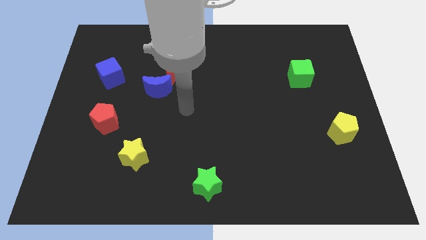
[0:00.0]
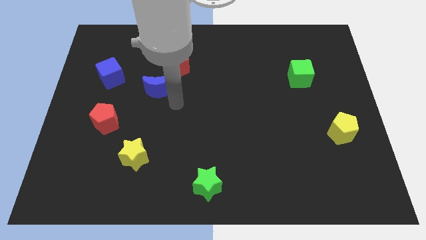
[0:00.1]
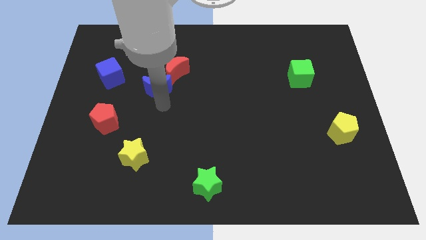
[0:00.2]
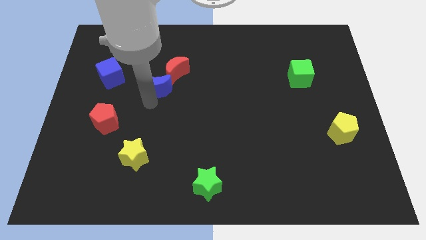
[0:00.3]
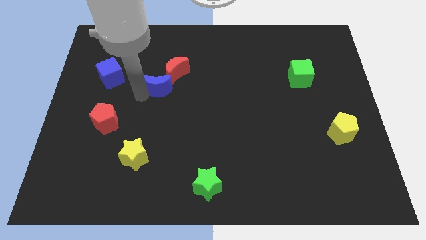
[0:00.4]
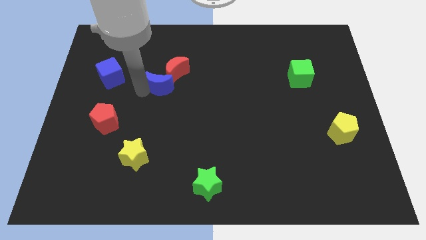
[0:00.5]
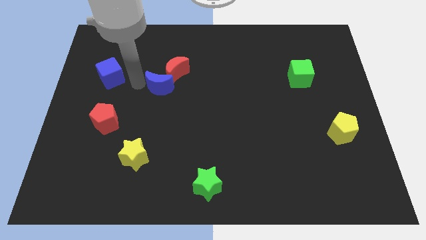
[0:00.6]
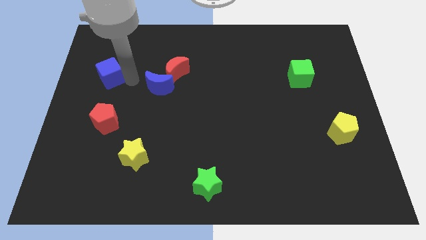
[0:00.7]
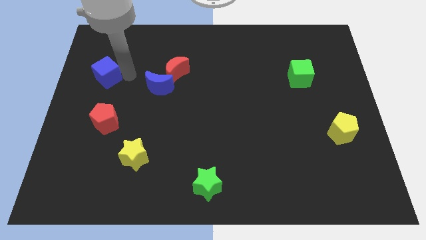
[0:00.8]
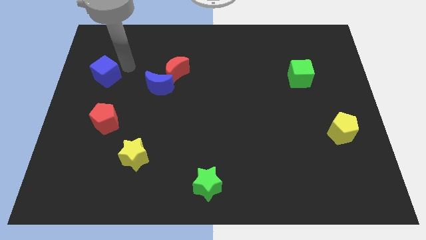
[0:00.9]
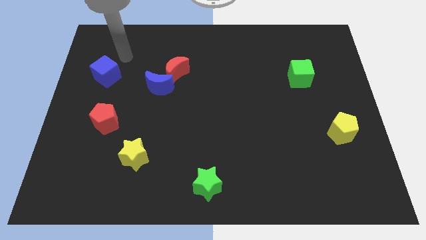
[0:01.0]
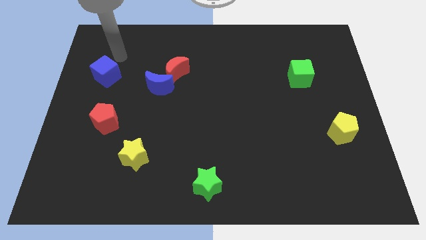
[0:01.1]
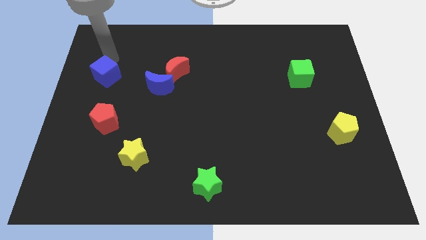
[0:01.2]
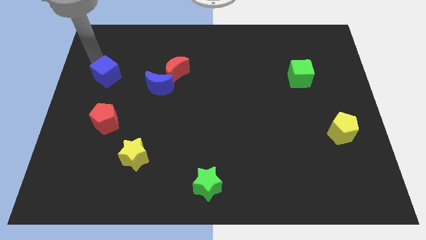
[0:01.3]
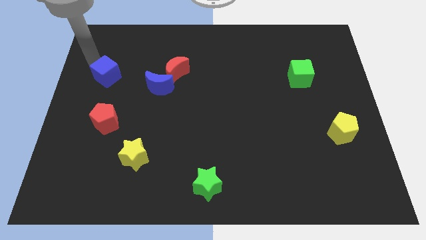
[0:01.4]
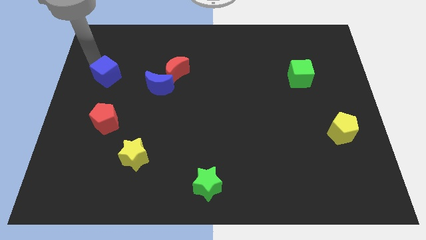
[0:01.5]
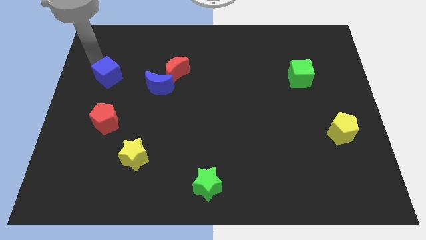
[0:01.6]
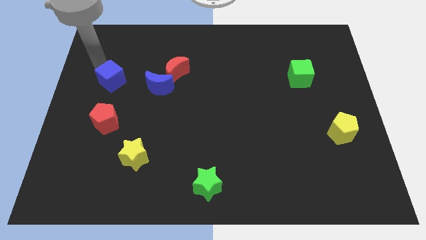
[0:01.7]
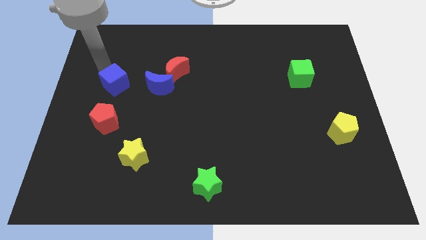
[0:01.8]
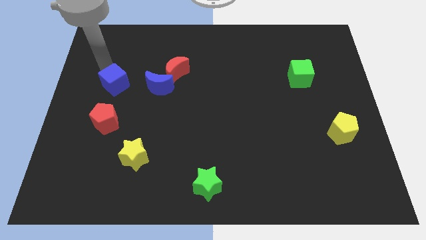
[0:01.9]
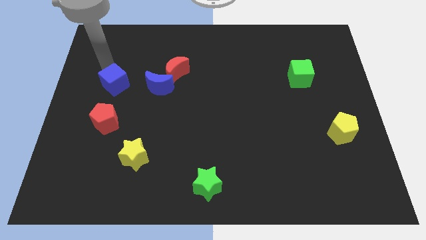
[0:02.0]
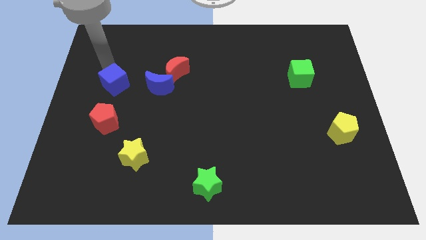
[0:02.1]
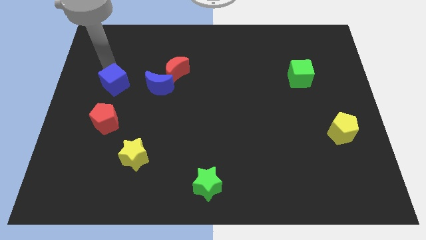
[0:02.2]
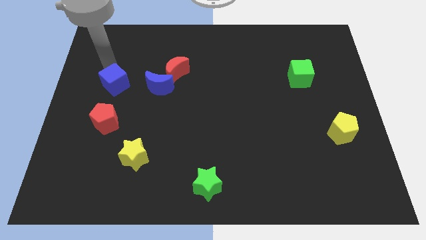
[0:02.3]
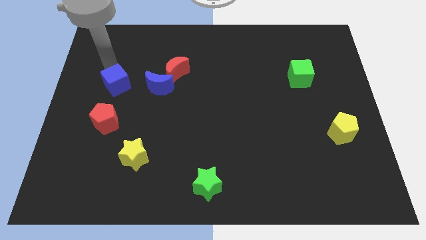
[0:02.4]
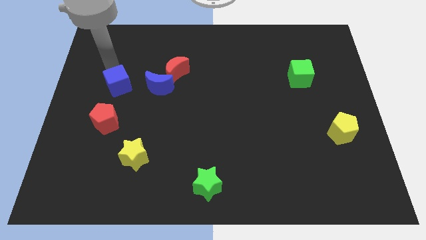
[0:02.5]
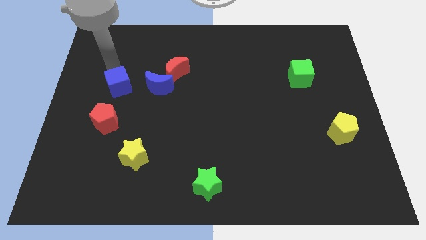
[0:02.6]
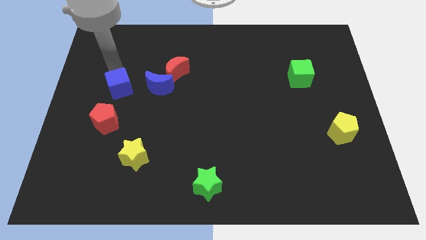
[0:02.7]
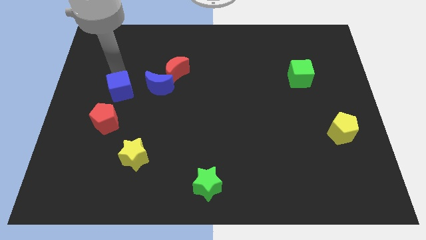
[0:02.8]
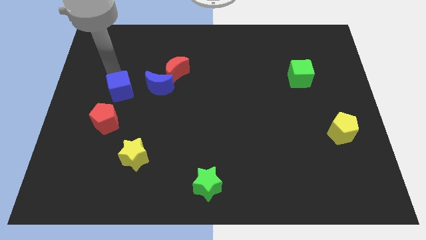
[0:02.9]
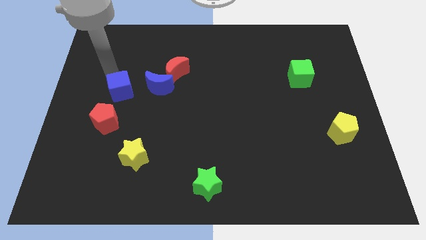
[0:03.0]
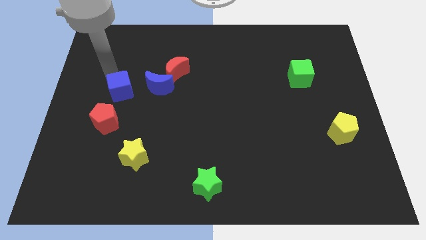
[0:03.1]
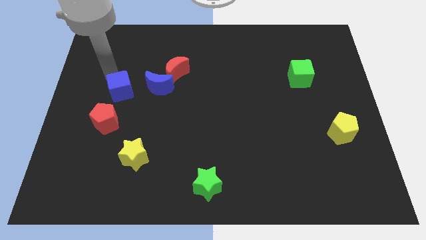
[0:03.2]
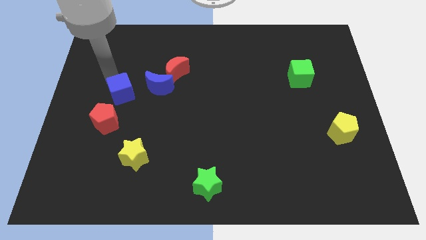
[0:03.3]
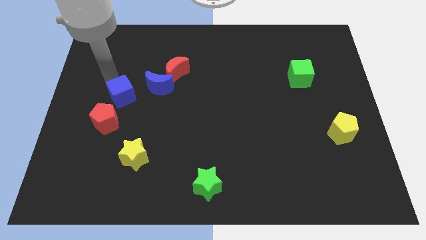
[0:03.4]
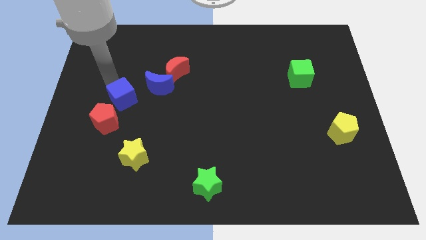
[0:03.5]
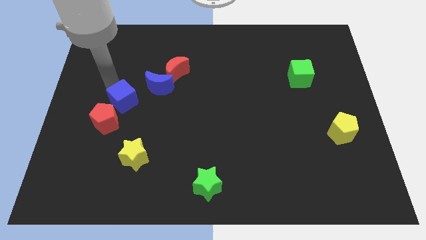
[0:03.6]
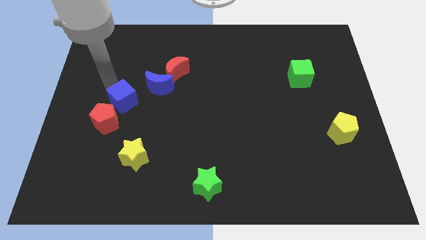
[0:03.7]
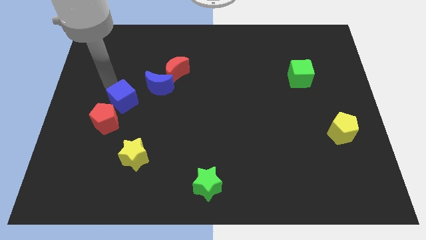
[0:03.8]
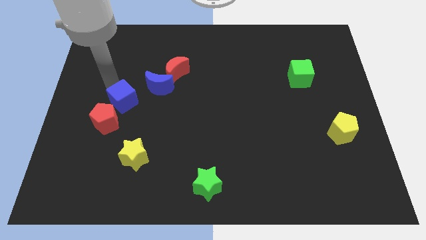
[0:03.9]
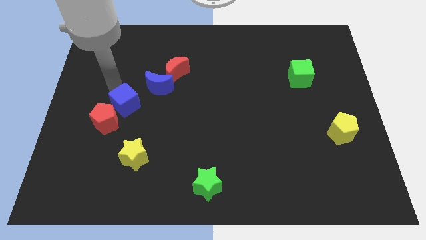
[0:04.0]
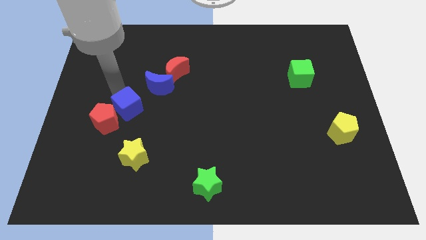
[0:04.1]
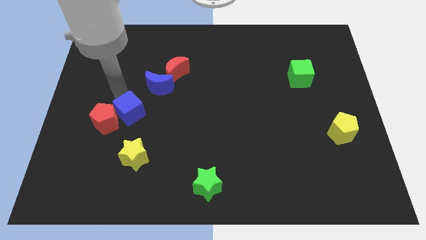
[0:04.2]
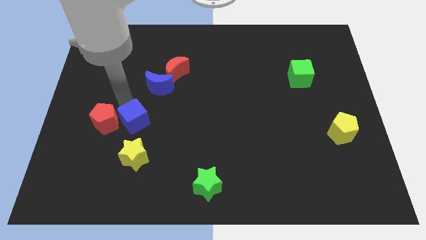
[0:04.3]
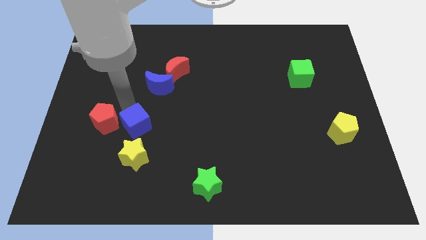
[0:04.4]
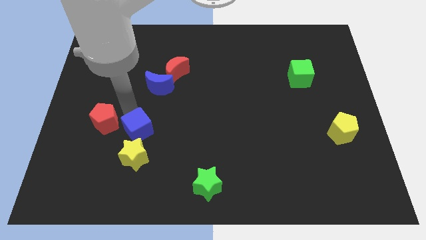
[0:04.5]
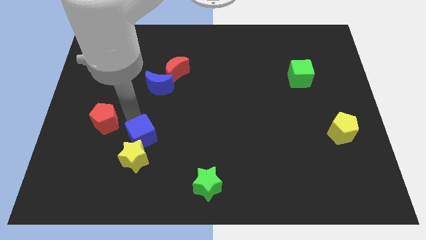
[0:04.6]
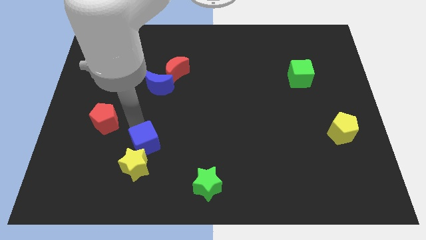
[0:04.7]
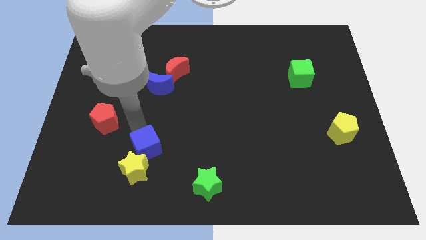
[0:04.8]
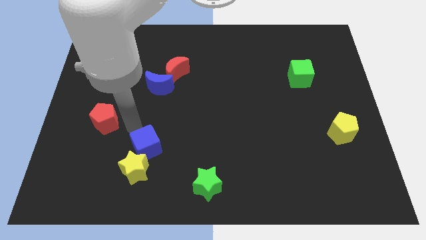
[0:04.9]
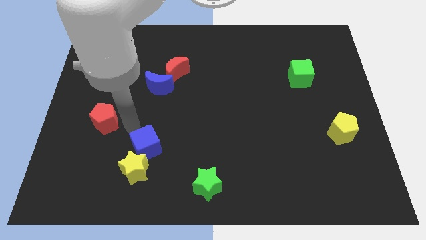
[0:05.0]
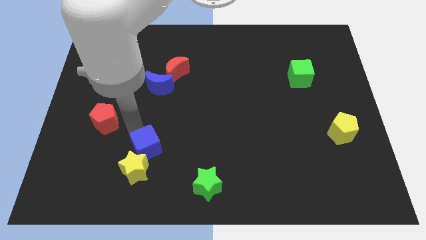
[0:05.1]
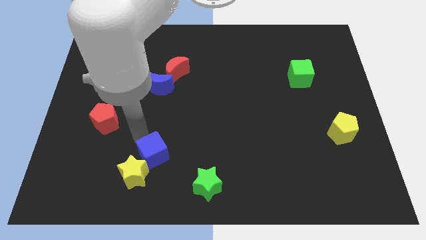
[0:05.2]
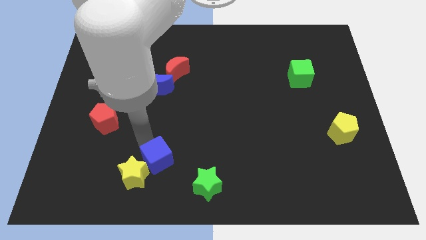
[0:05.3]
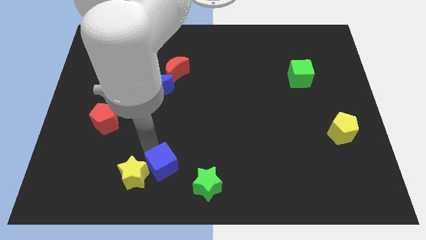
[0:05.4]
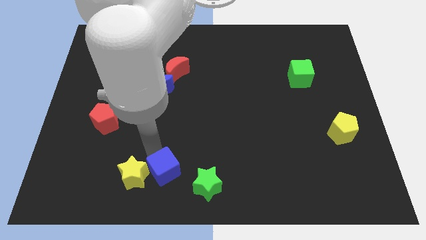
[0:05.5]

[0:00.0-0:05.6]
push the blue cube to the bottom side
